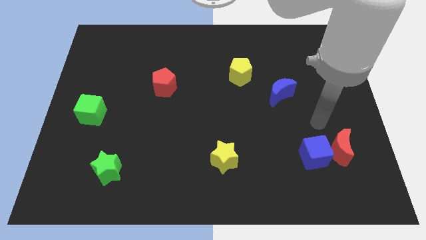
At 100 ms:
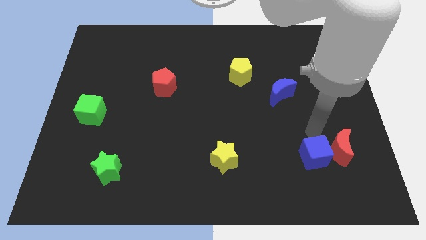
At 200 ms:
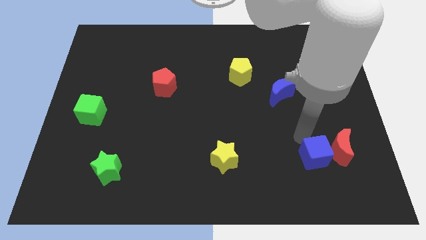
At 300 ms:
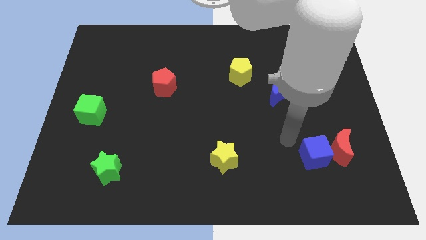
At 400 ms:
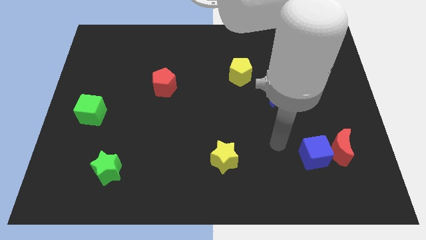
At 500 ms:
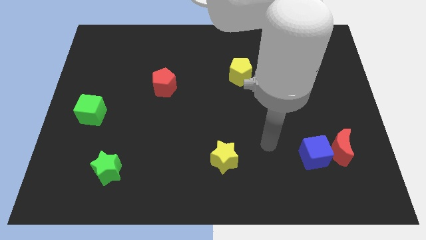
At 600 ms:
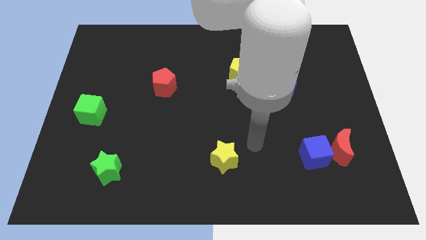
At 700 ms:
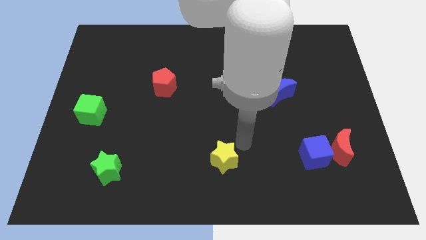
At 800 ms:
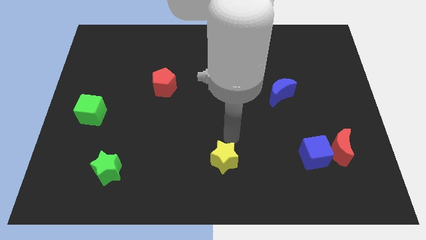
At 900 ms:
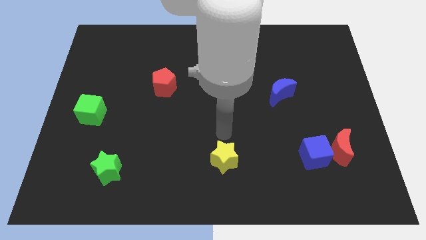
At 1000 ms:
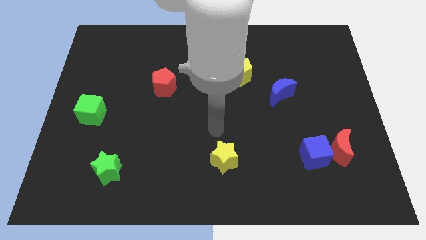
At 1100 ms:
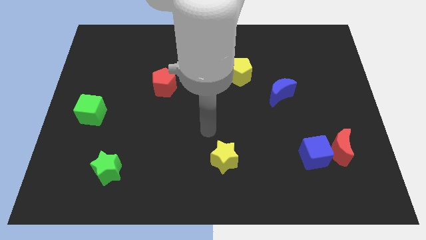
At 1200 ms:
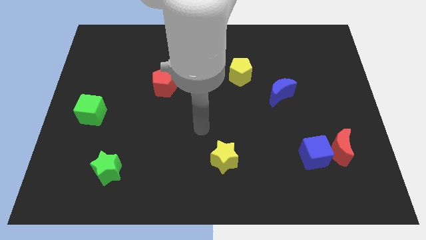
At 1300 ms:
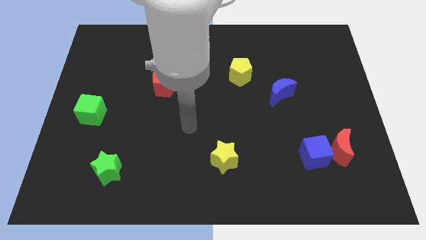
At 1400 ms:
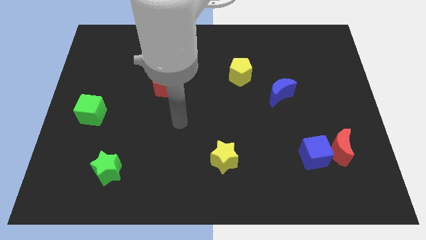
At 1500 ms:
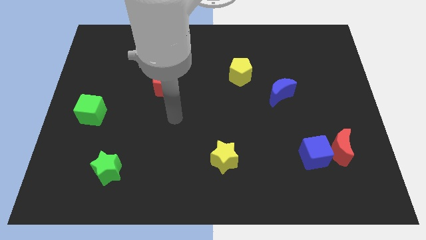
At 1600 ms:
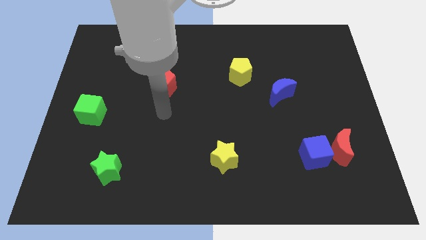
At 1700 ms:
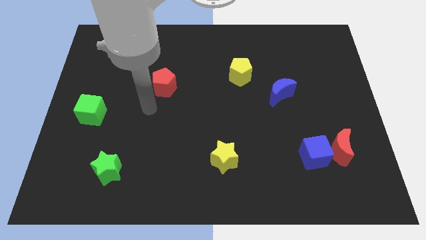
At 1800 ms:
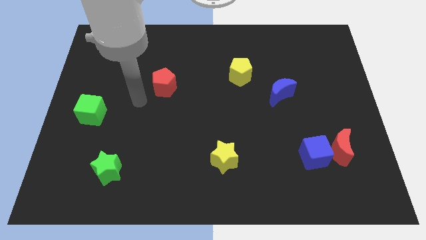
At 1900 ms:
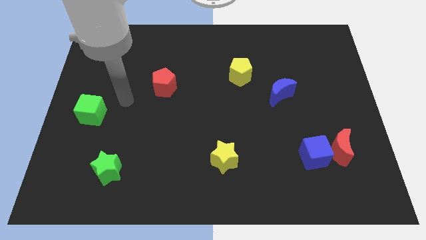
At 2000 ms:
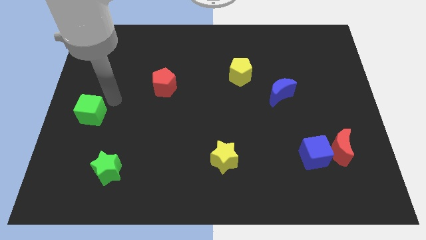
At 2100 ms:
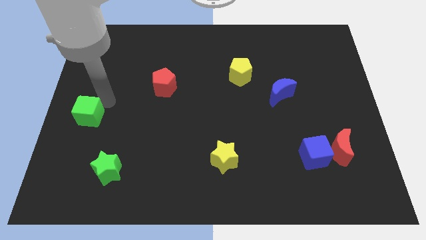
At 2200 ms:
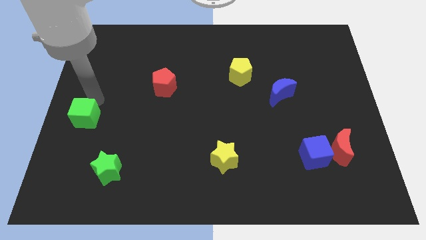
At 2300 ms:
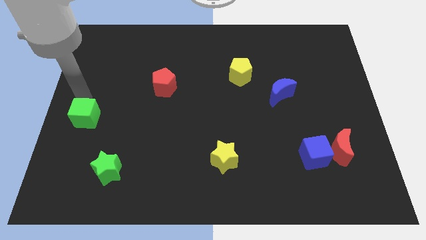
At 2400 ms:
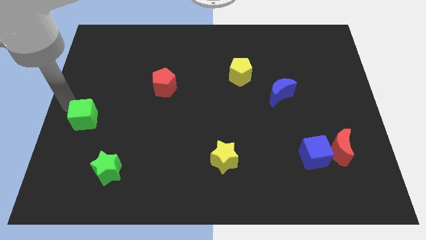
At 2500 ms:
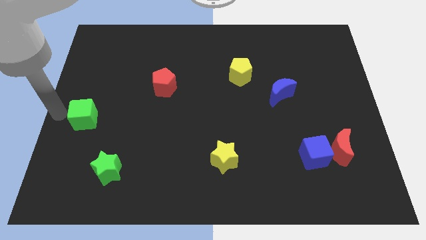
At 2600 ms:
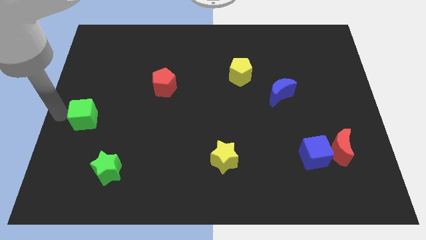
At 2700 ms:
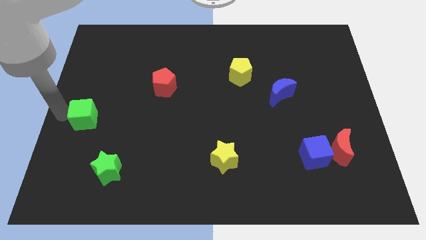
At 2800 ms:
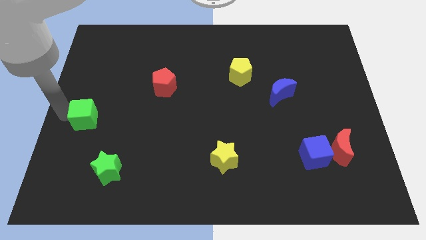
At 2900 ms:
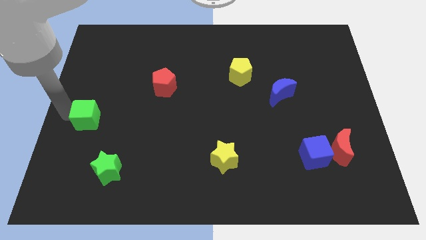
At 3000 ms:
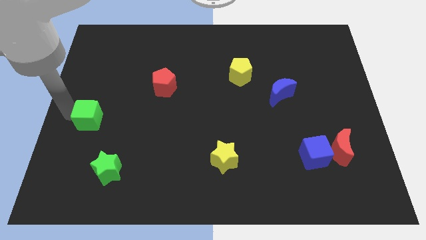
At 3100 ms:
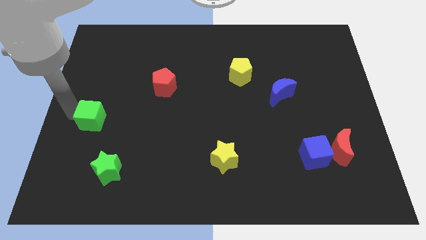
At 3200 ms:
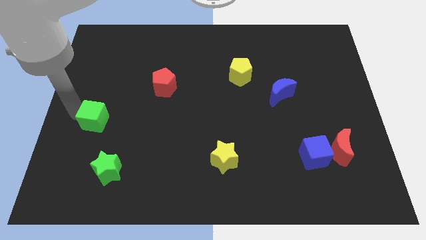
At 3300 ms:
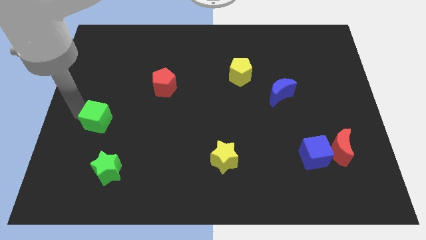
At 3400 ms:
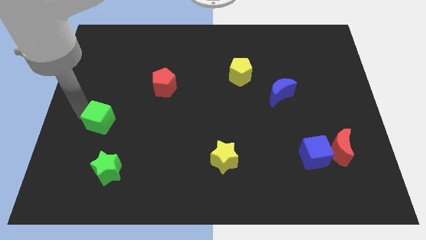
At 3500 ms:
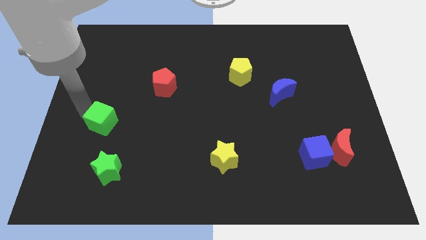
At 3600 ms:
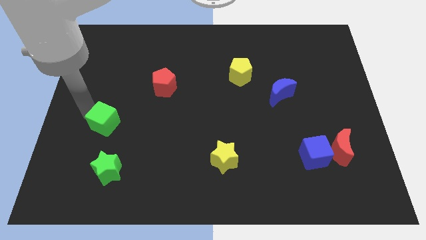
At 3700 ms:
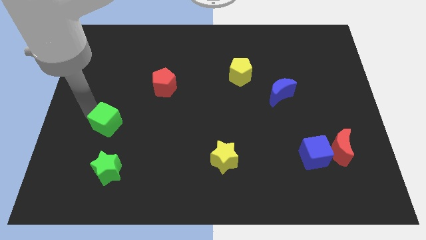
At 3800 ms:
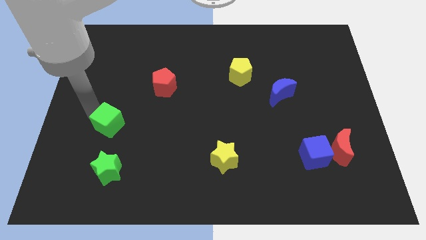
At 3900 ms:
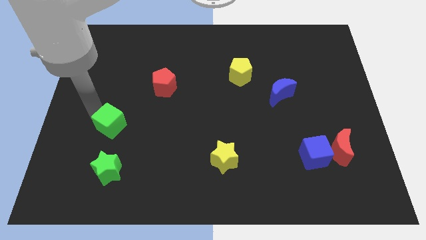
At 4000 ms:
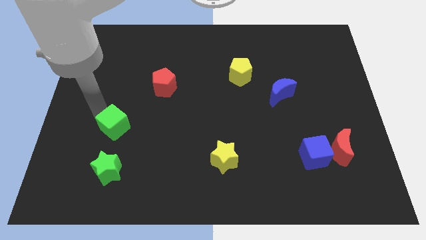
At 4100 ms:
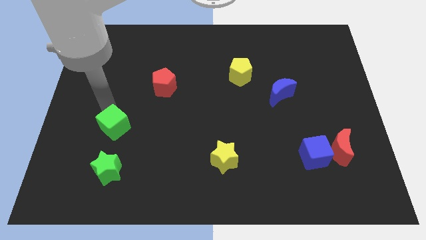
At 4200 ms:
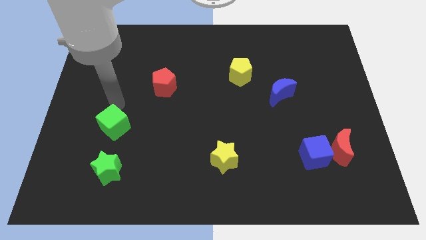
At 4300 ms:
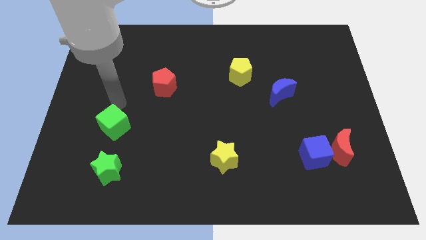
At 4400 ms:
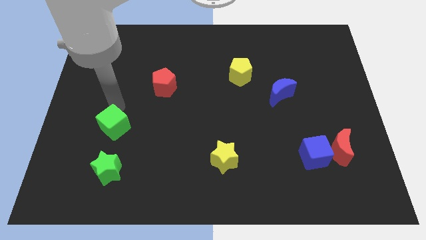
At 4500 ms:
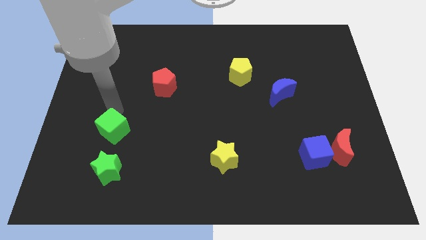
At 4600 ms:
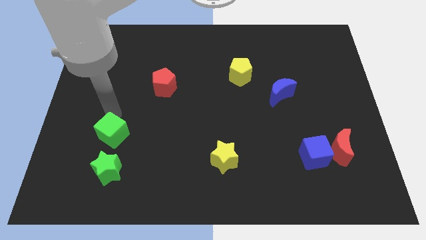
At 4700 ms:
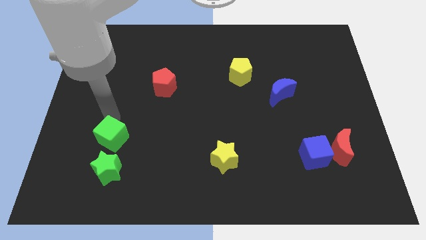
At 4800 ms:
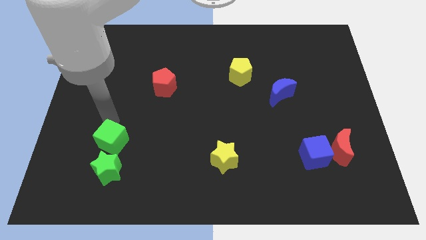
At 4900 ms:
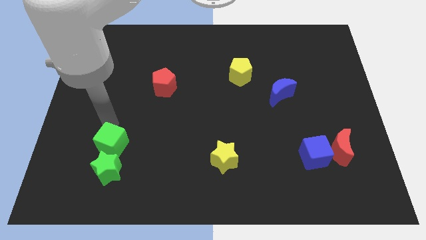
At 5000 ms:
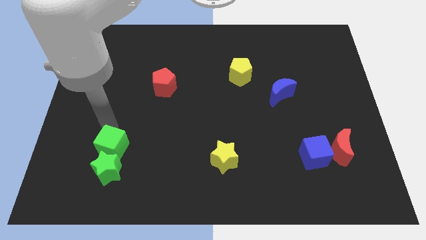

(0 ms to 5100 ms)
slide the green cube close to the green star

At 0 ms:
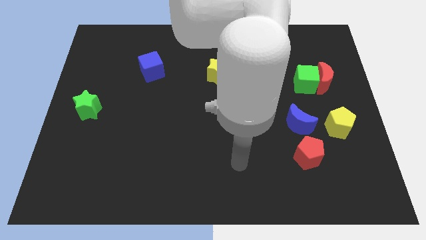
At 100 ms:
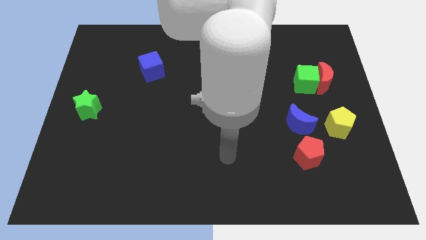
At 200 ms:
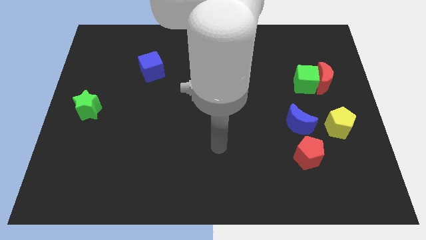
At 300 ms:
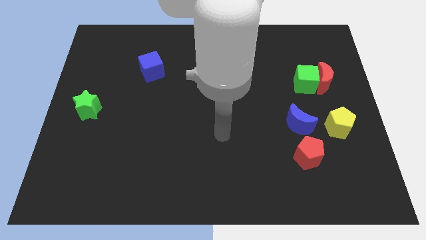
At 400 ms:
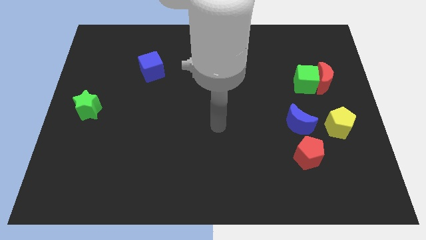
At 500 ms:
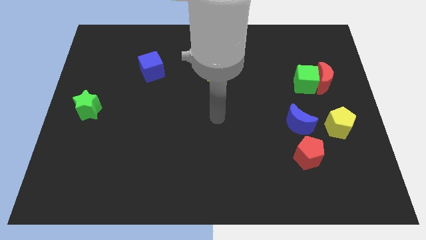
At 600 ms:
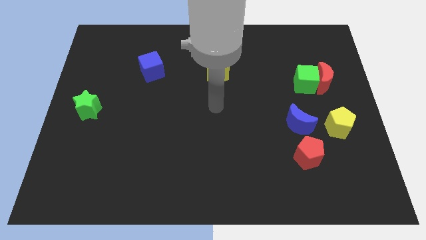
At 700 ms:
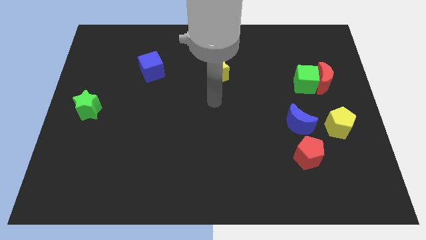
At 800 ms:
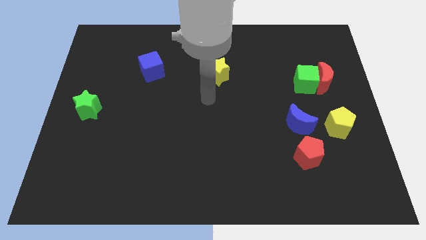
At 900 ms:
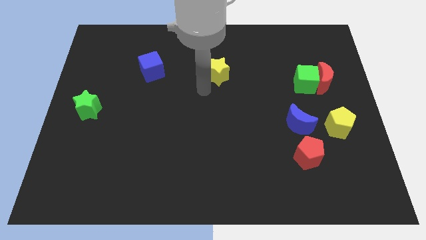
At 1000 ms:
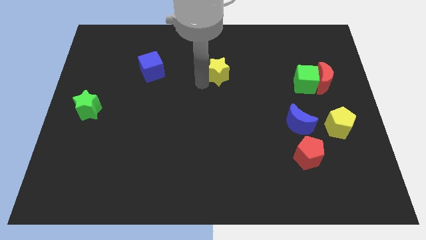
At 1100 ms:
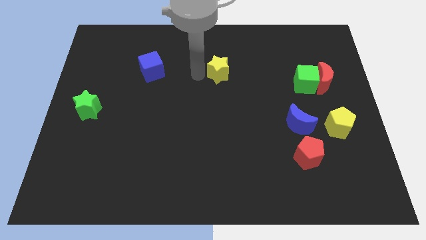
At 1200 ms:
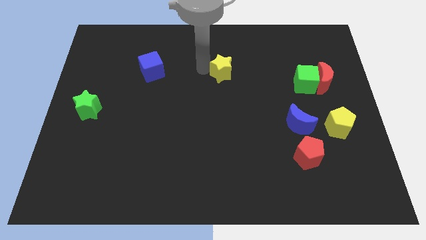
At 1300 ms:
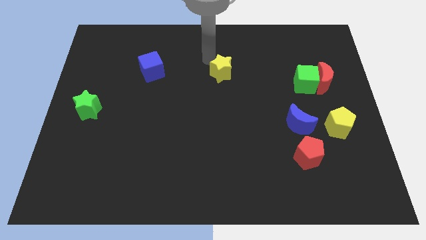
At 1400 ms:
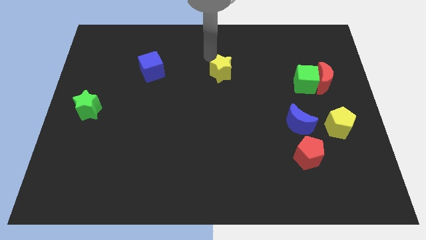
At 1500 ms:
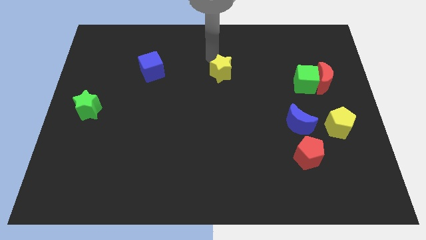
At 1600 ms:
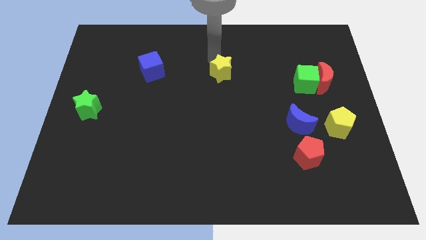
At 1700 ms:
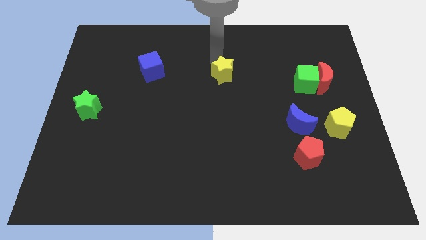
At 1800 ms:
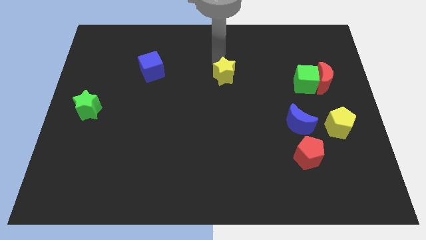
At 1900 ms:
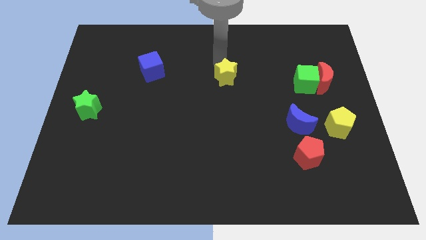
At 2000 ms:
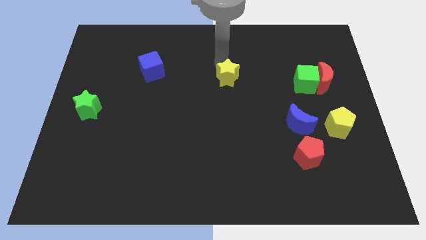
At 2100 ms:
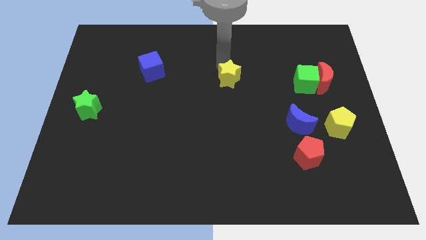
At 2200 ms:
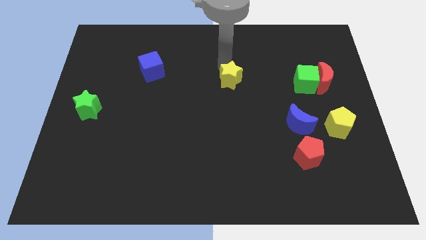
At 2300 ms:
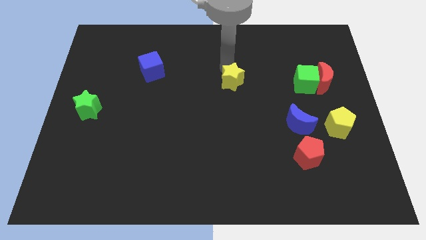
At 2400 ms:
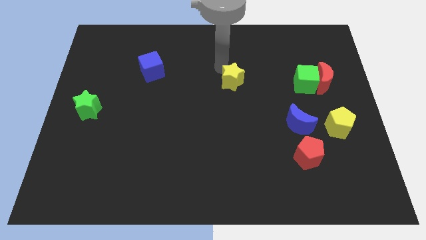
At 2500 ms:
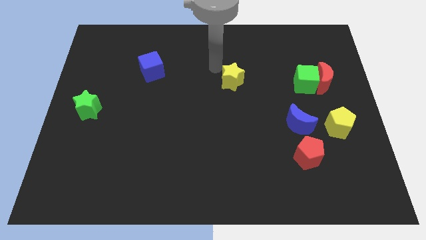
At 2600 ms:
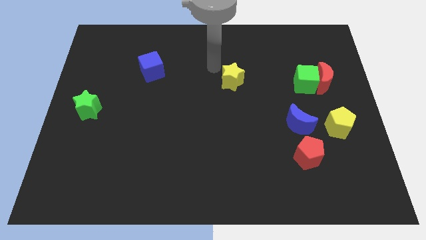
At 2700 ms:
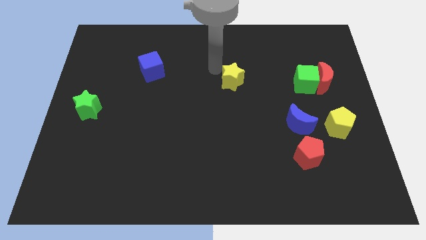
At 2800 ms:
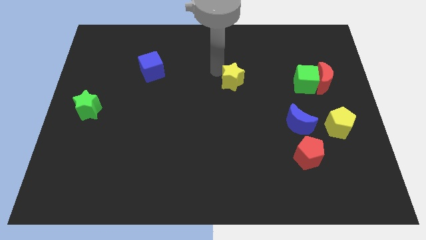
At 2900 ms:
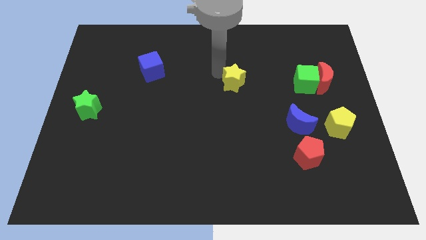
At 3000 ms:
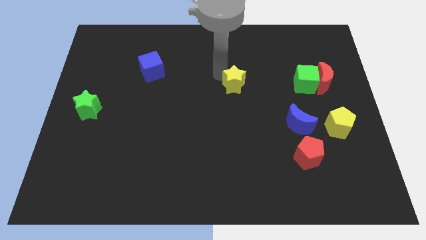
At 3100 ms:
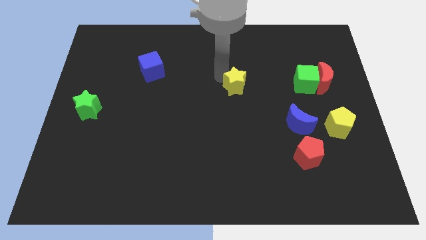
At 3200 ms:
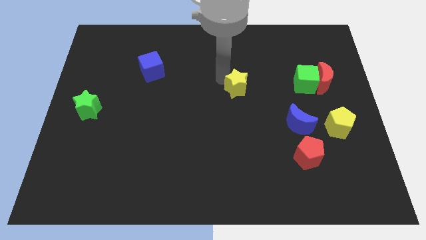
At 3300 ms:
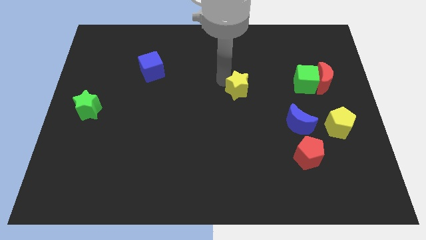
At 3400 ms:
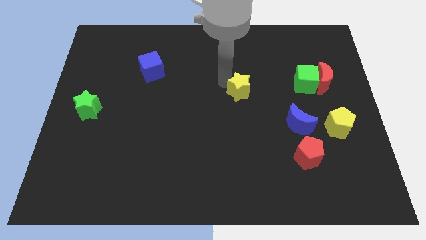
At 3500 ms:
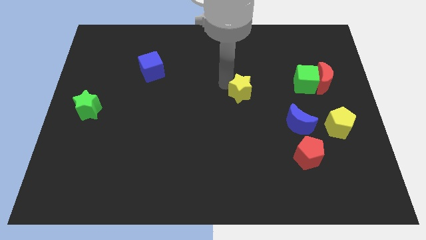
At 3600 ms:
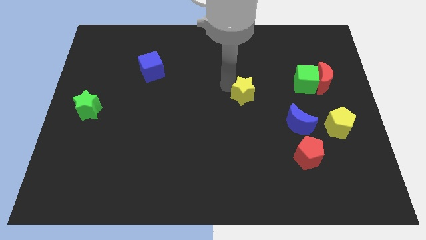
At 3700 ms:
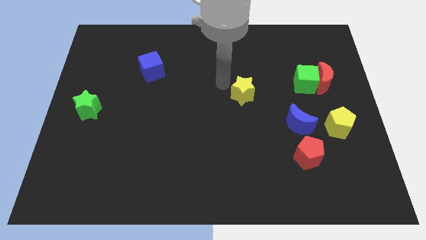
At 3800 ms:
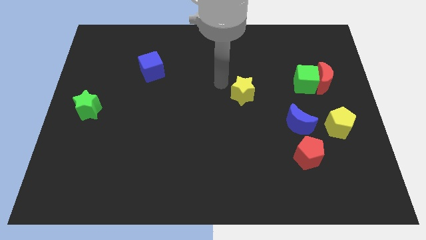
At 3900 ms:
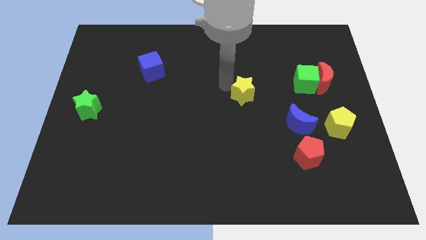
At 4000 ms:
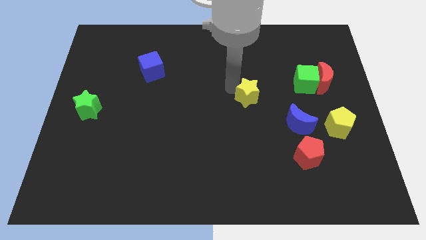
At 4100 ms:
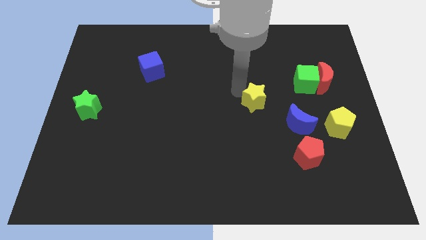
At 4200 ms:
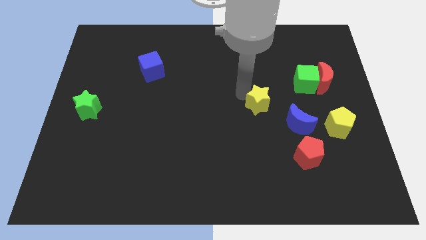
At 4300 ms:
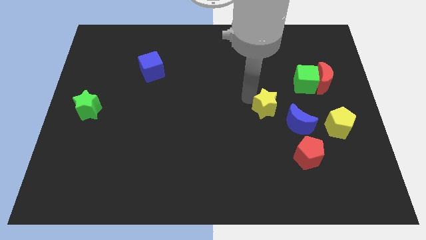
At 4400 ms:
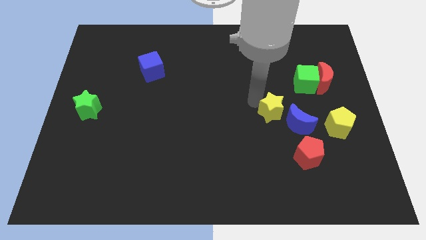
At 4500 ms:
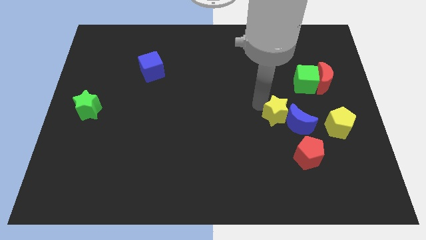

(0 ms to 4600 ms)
put the yellow star to the blue moon
